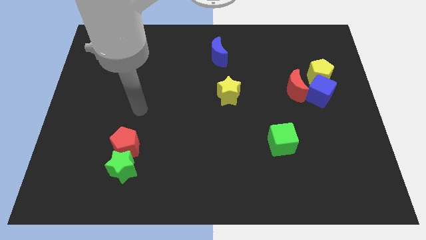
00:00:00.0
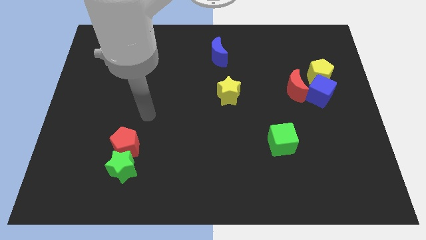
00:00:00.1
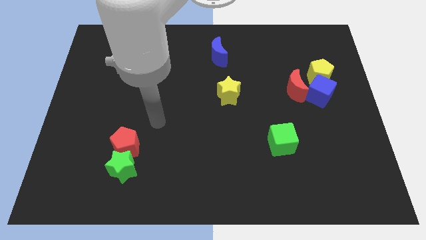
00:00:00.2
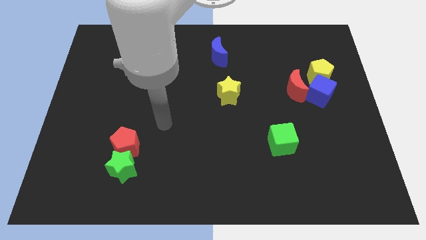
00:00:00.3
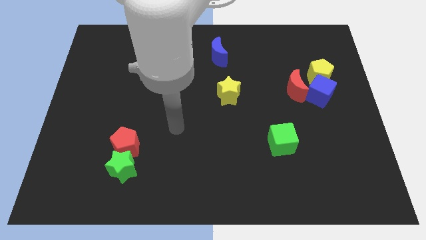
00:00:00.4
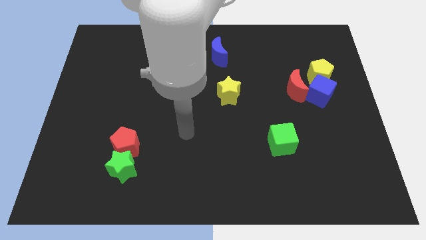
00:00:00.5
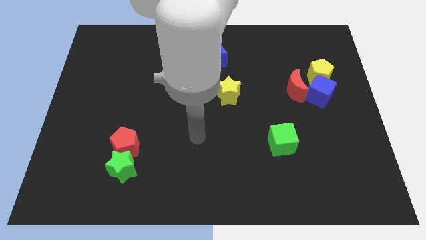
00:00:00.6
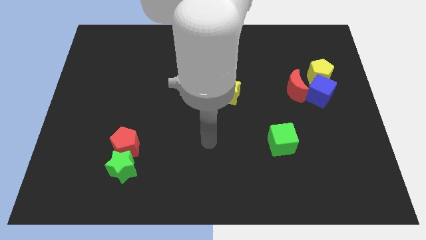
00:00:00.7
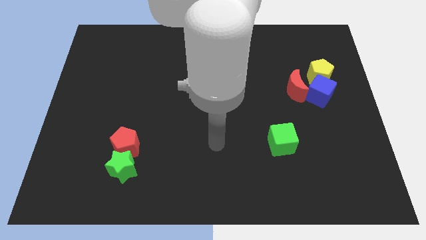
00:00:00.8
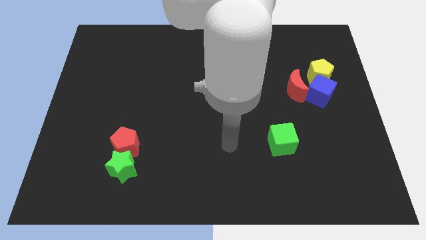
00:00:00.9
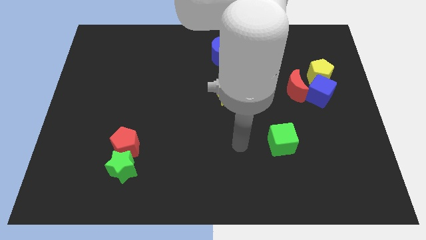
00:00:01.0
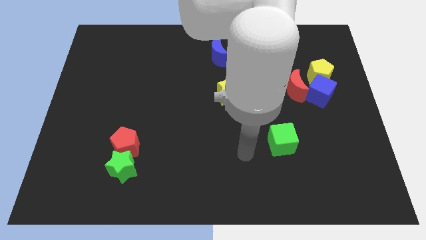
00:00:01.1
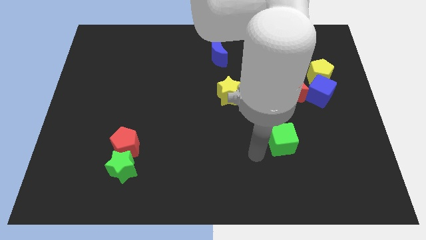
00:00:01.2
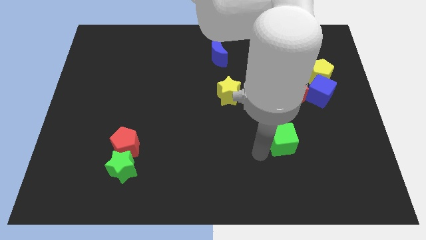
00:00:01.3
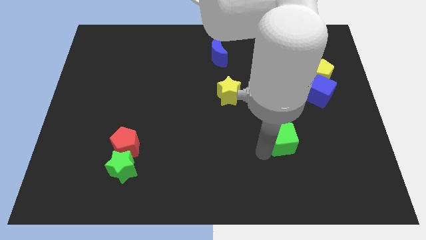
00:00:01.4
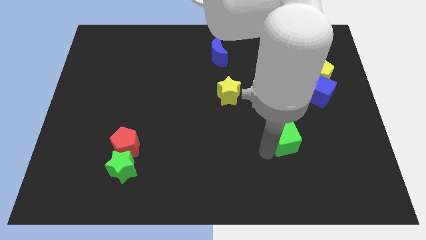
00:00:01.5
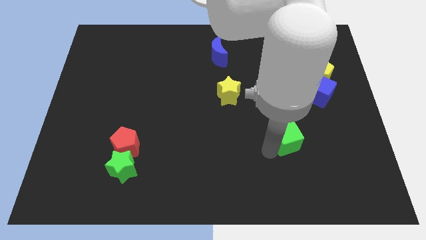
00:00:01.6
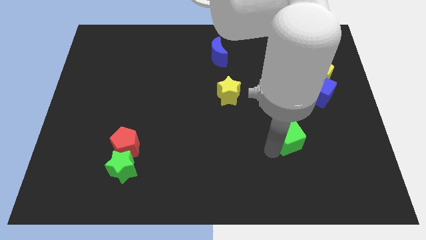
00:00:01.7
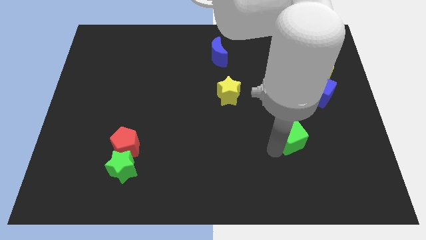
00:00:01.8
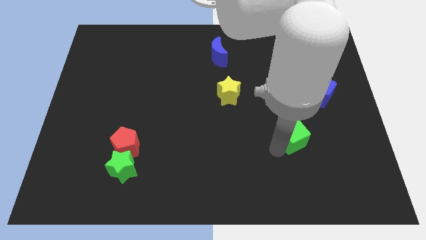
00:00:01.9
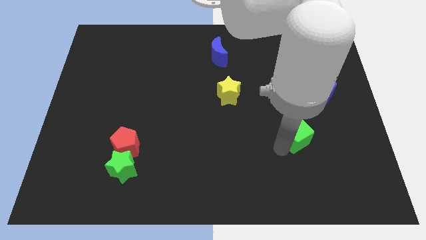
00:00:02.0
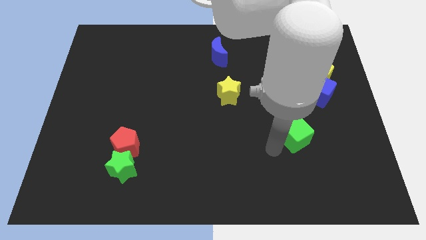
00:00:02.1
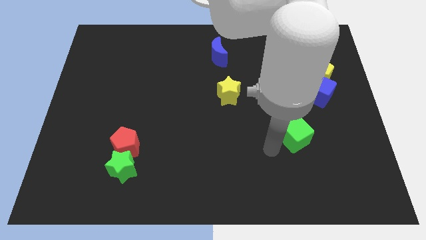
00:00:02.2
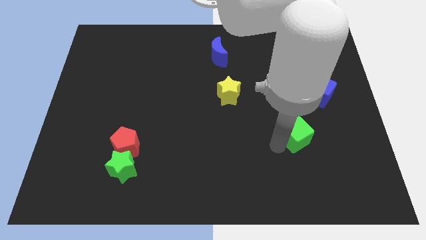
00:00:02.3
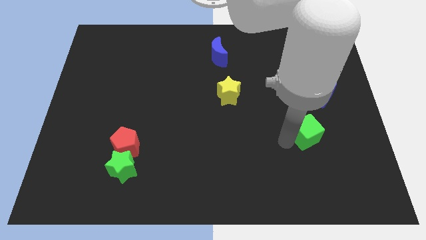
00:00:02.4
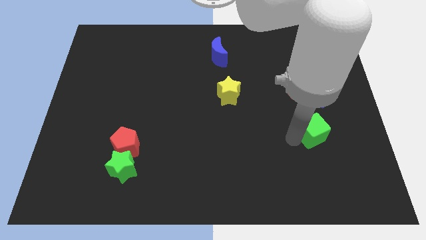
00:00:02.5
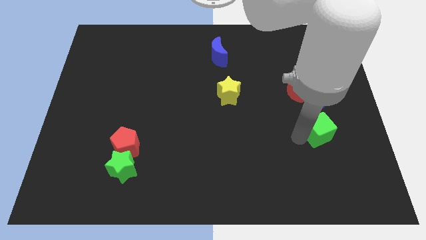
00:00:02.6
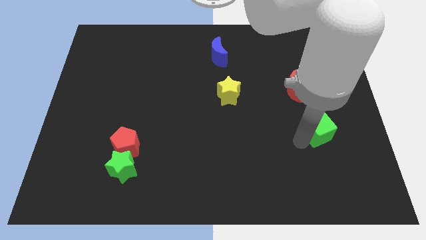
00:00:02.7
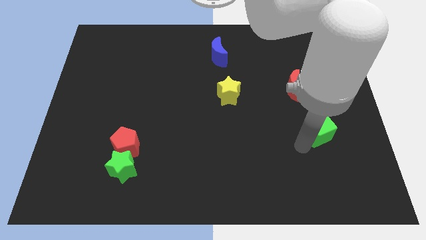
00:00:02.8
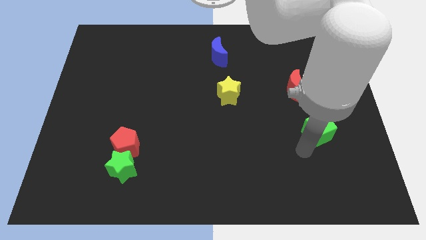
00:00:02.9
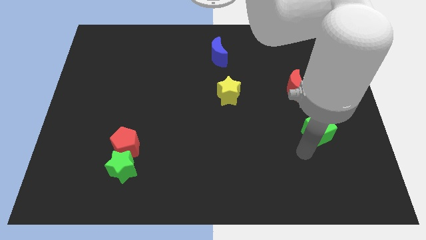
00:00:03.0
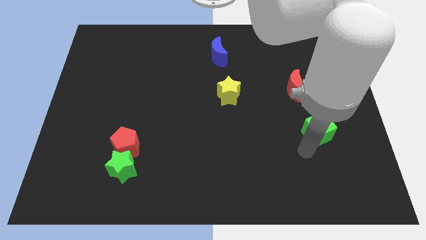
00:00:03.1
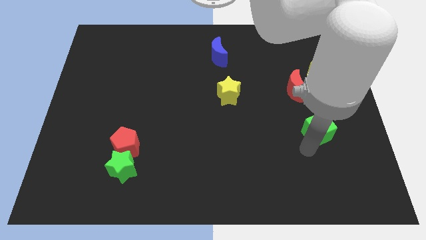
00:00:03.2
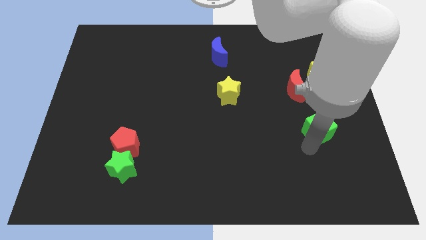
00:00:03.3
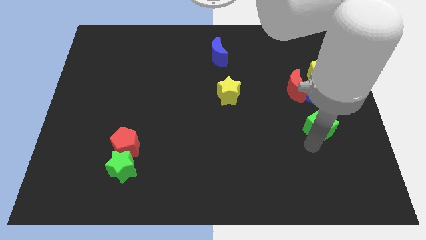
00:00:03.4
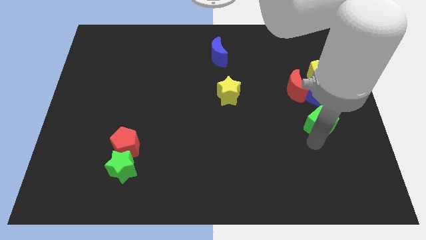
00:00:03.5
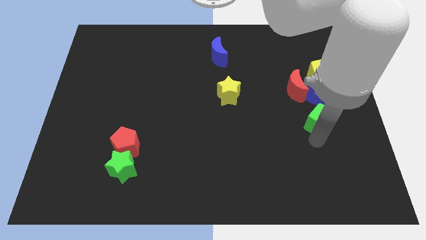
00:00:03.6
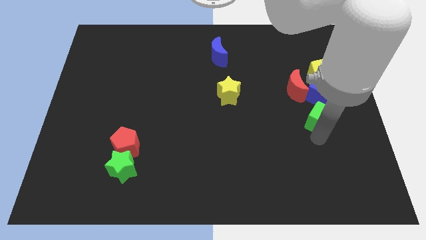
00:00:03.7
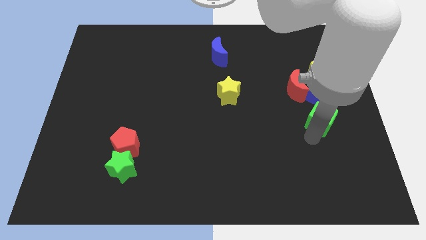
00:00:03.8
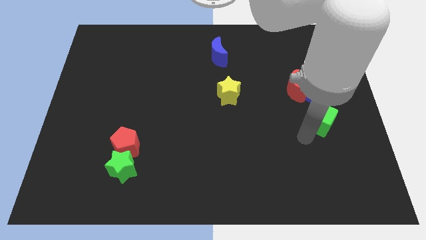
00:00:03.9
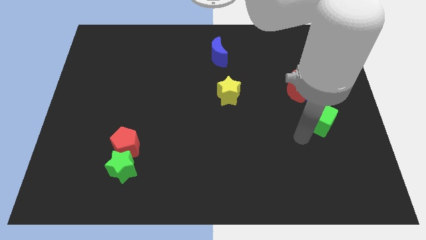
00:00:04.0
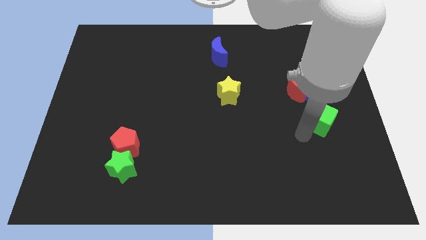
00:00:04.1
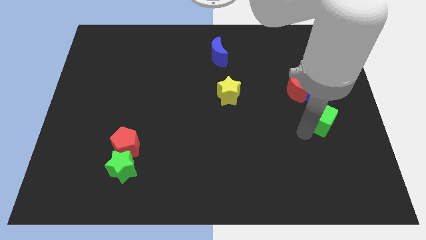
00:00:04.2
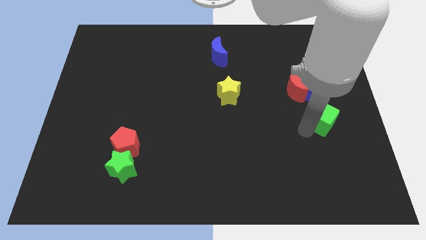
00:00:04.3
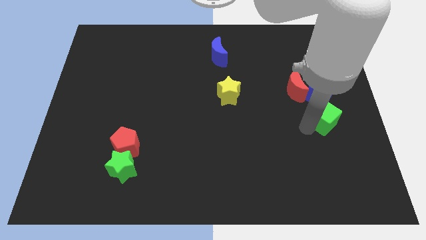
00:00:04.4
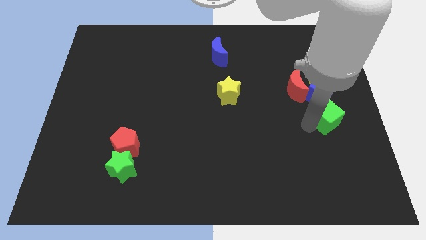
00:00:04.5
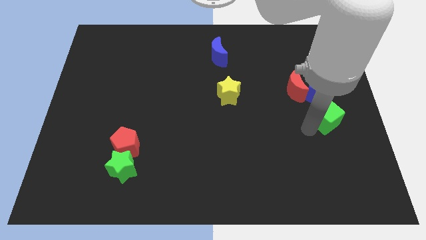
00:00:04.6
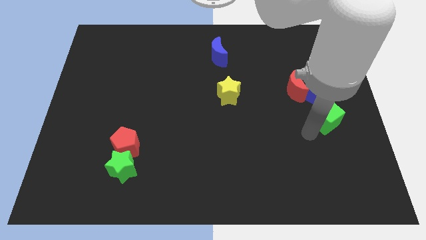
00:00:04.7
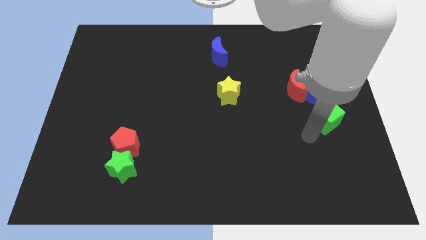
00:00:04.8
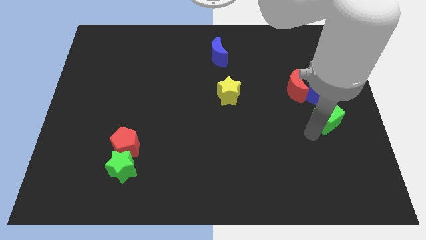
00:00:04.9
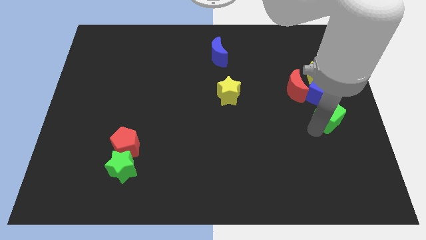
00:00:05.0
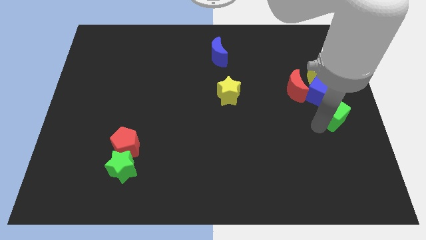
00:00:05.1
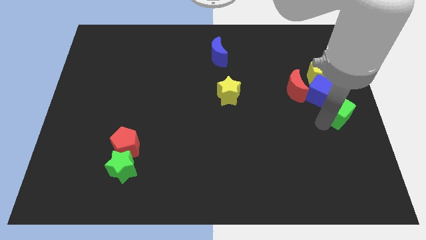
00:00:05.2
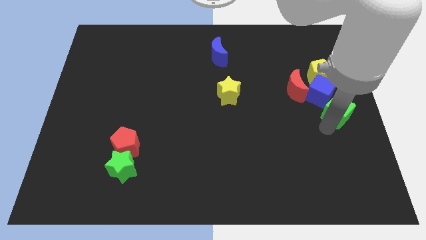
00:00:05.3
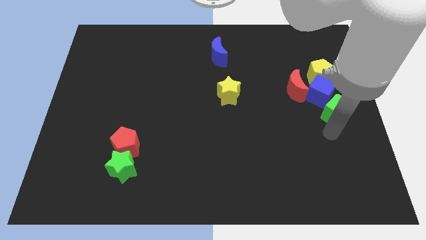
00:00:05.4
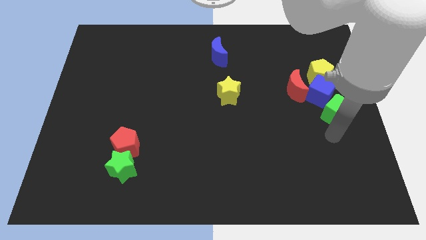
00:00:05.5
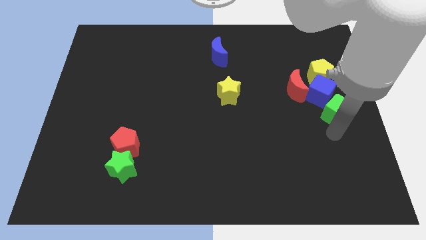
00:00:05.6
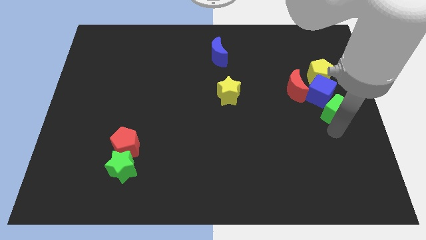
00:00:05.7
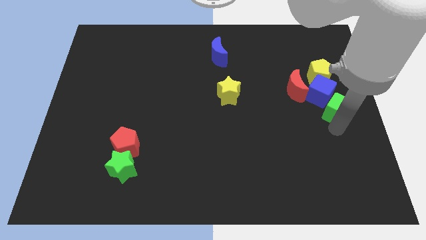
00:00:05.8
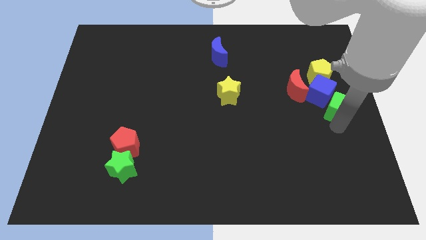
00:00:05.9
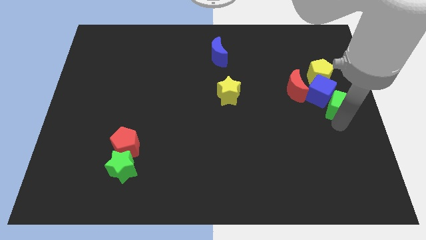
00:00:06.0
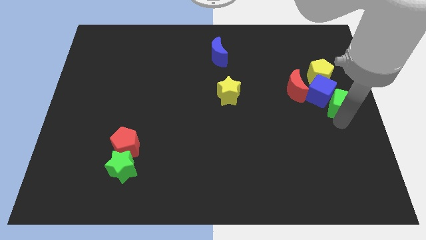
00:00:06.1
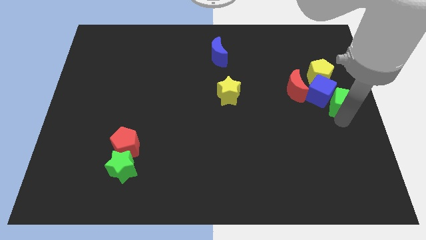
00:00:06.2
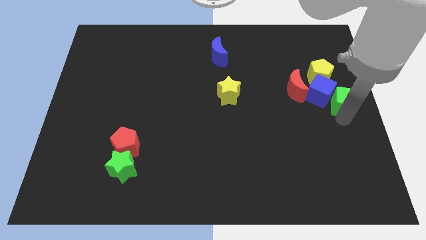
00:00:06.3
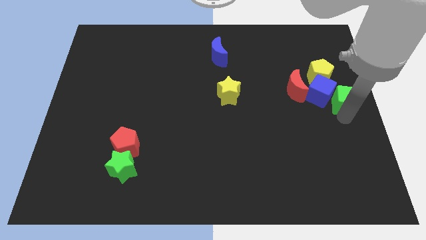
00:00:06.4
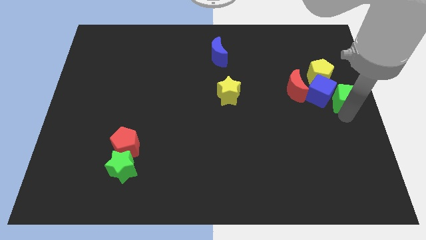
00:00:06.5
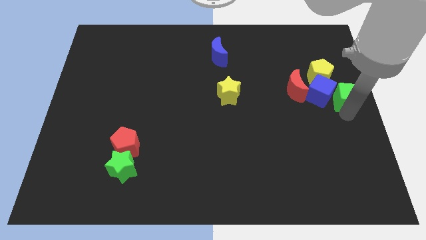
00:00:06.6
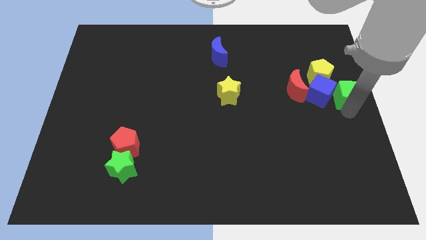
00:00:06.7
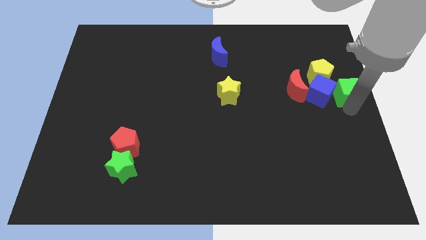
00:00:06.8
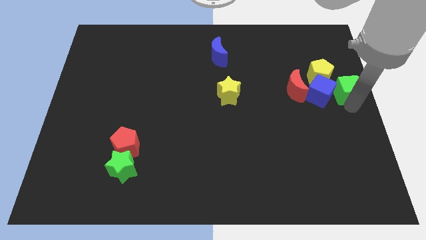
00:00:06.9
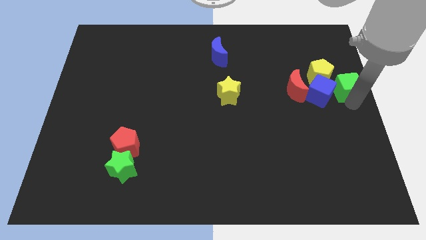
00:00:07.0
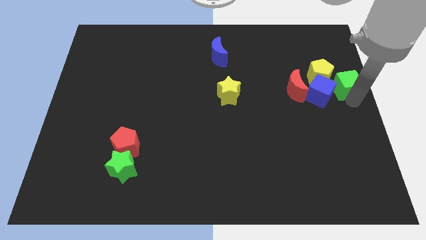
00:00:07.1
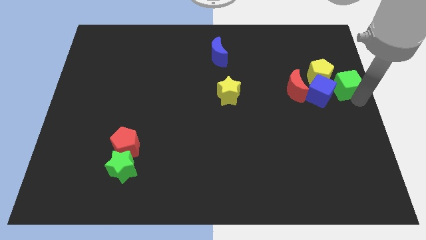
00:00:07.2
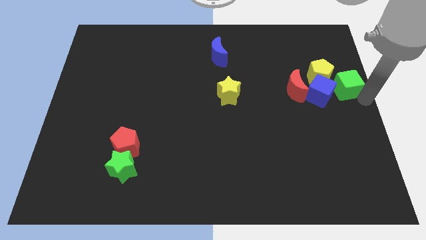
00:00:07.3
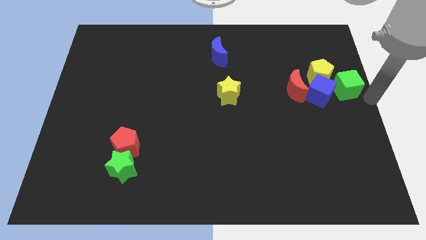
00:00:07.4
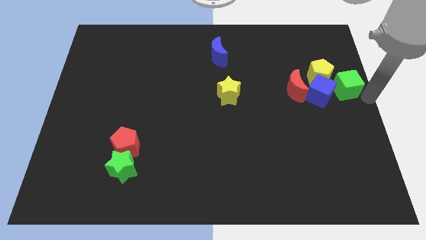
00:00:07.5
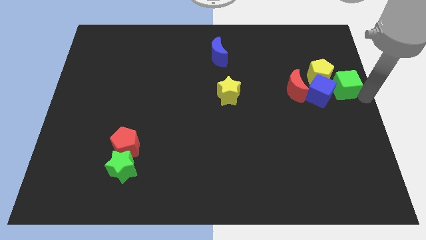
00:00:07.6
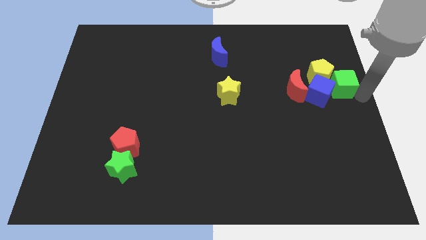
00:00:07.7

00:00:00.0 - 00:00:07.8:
push the green cube close to the yellow pentagon
